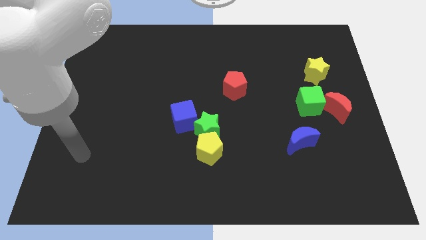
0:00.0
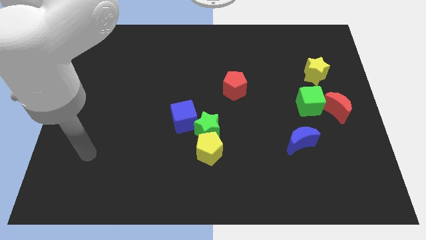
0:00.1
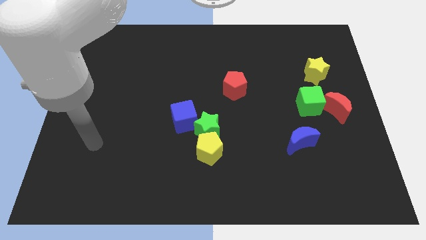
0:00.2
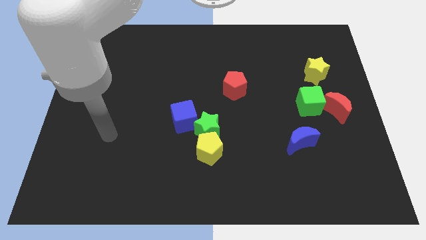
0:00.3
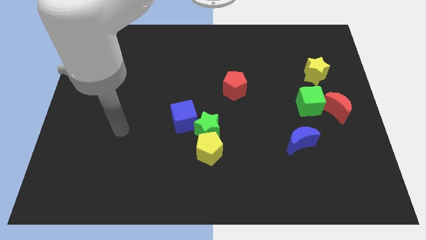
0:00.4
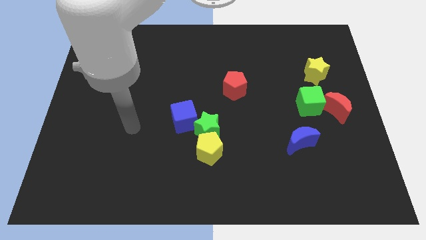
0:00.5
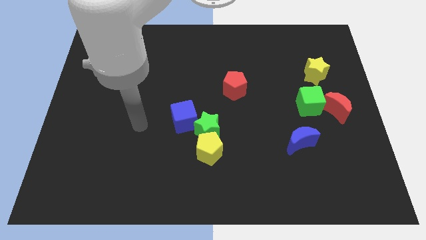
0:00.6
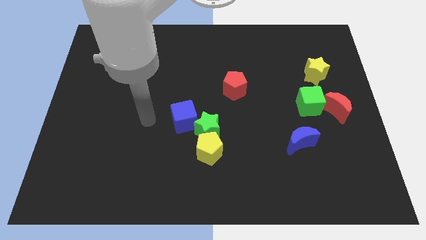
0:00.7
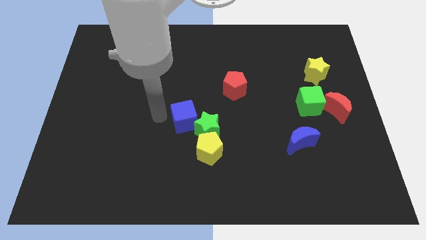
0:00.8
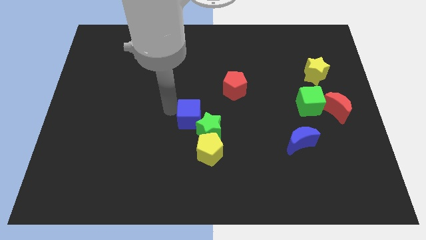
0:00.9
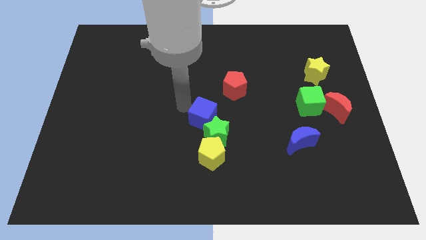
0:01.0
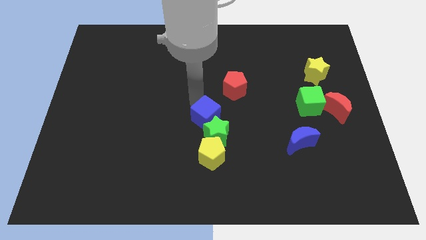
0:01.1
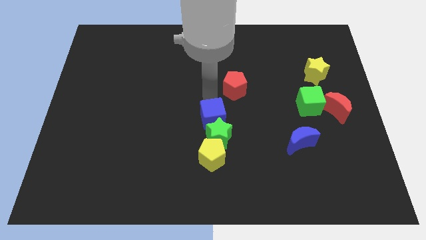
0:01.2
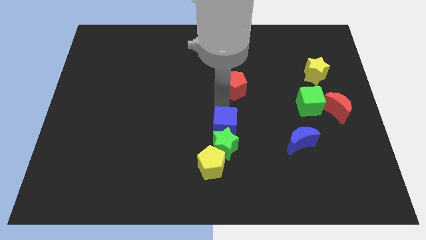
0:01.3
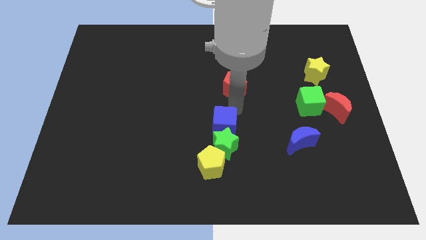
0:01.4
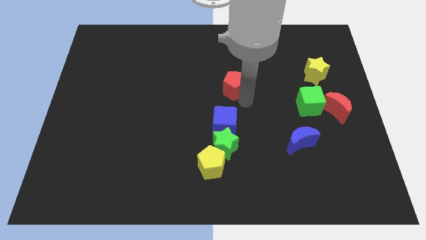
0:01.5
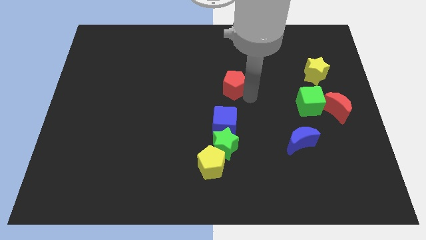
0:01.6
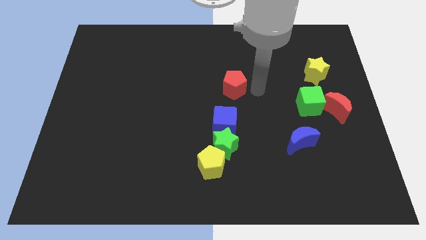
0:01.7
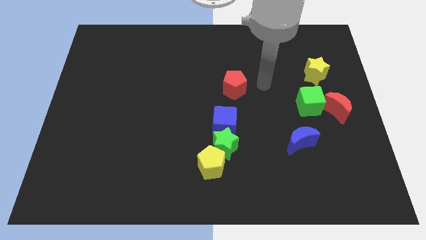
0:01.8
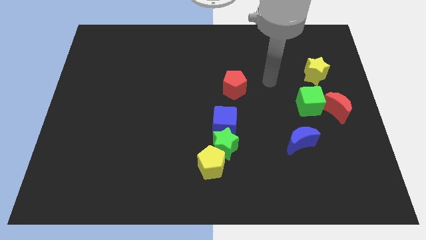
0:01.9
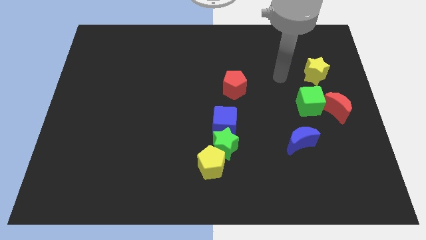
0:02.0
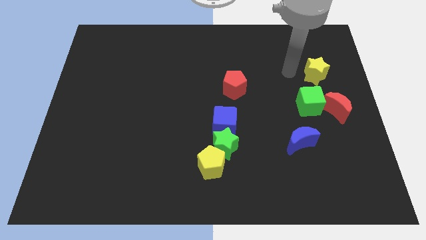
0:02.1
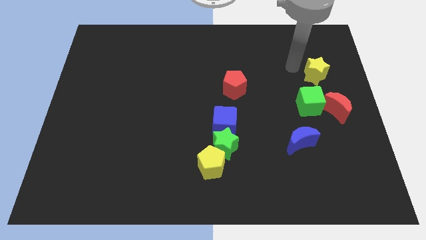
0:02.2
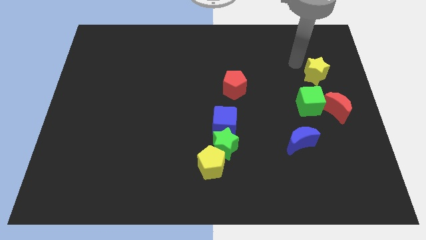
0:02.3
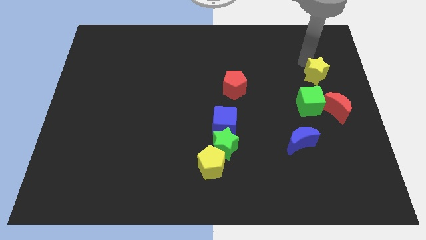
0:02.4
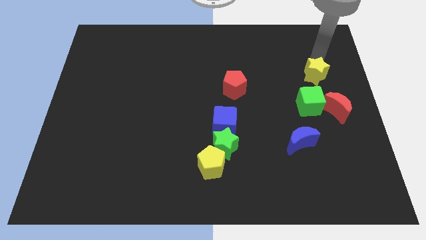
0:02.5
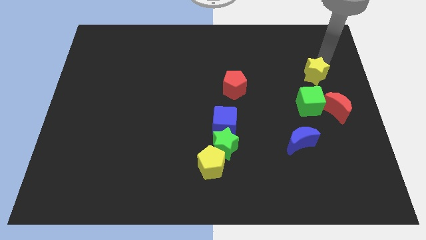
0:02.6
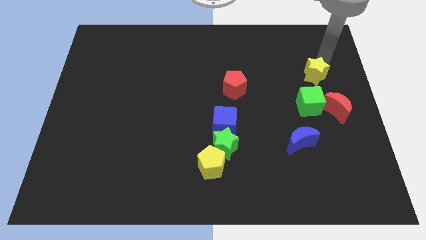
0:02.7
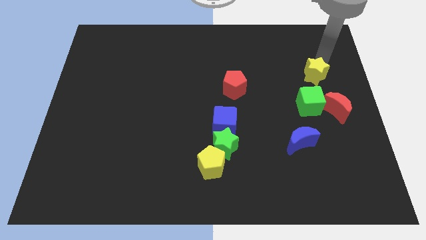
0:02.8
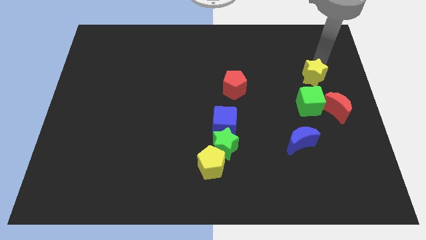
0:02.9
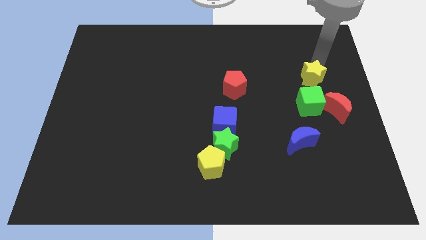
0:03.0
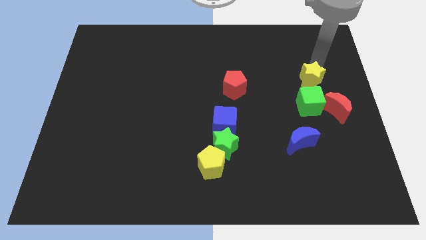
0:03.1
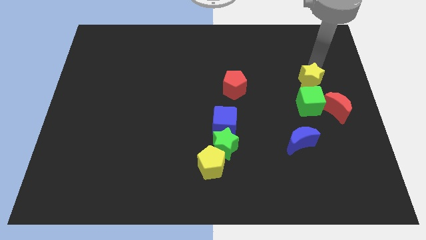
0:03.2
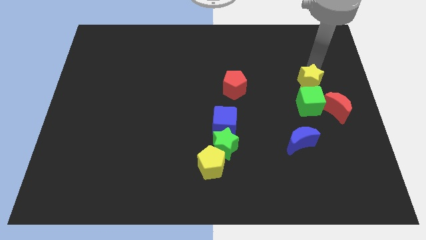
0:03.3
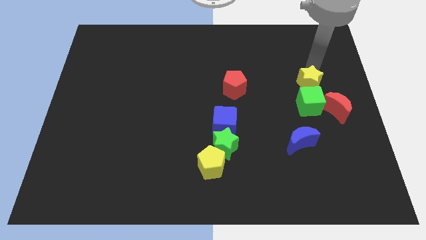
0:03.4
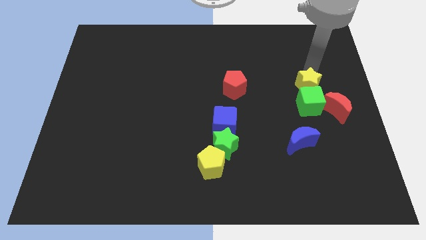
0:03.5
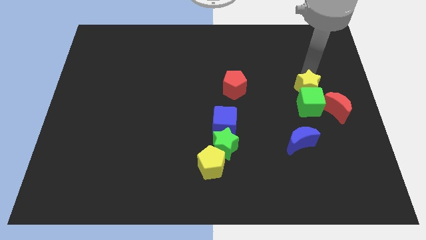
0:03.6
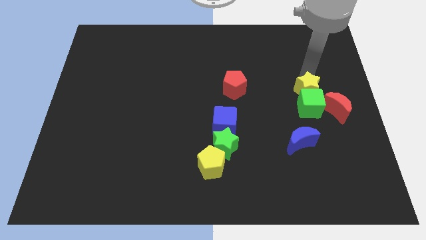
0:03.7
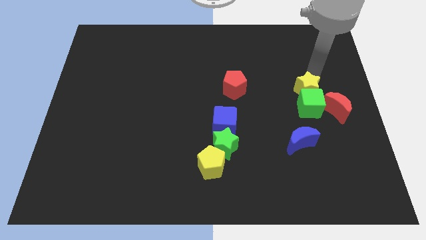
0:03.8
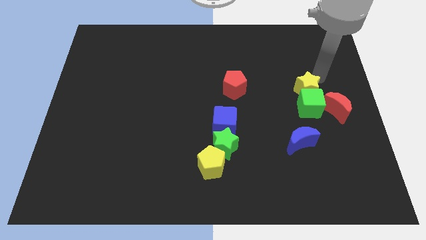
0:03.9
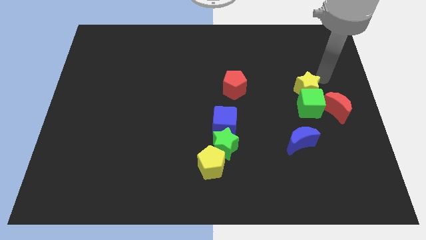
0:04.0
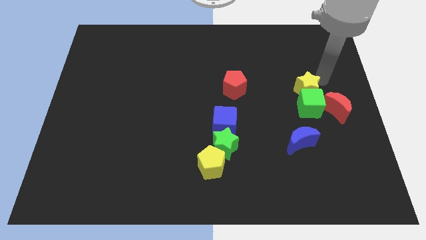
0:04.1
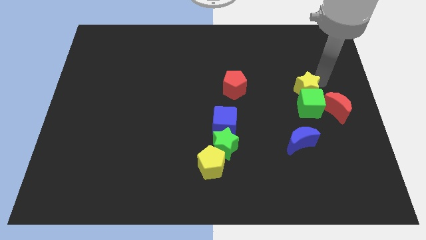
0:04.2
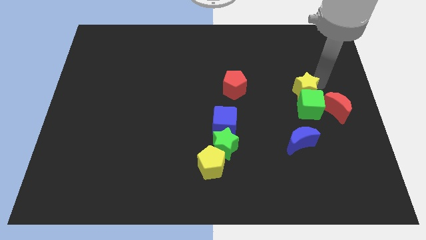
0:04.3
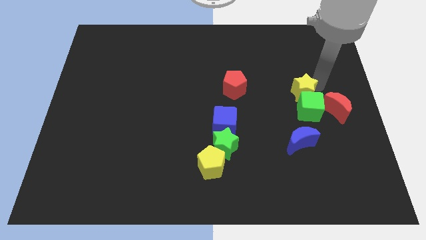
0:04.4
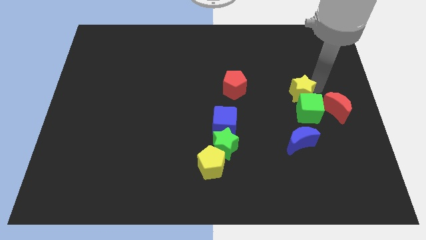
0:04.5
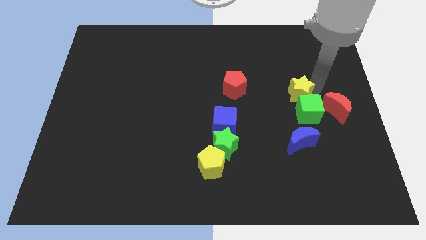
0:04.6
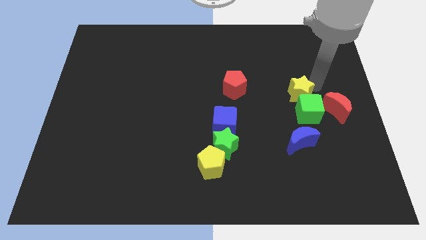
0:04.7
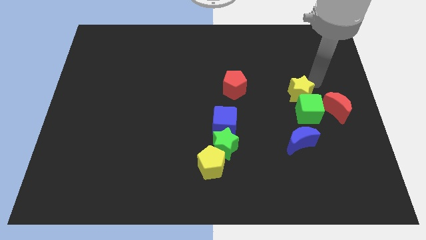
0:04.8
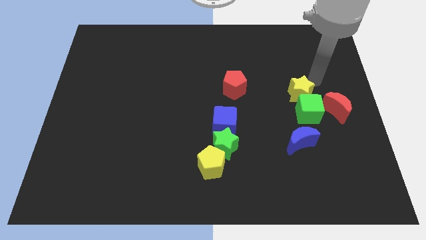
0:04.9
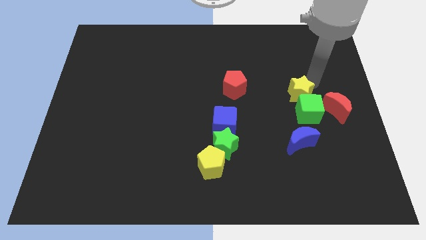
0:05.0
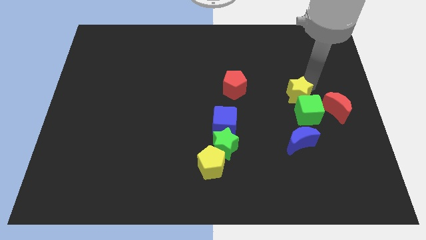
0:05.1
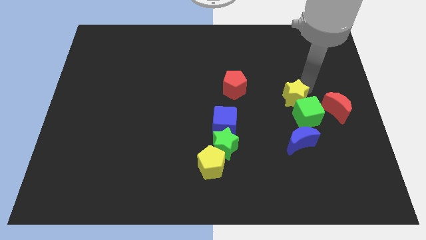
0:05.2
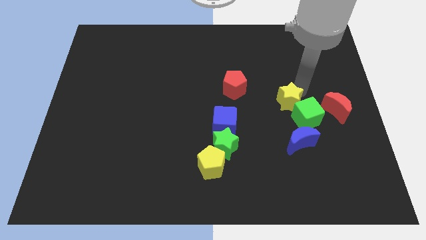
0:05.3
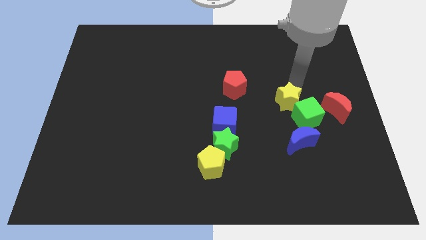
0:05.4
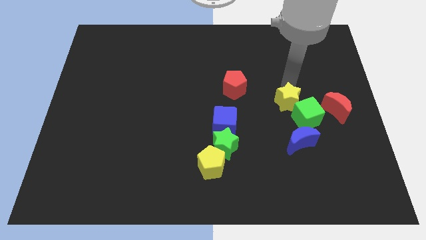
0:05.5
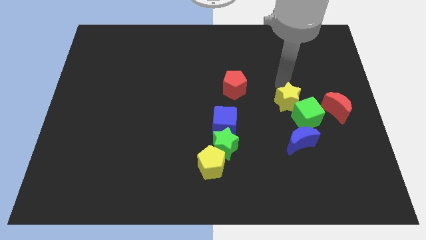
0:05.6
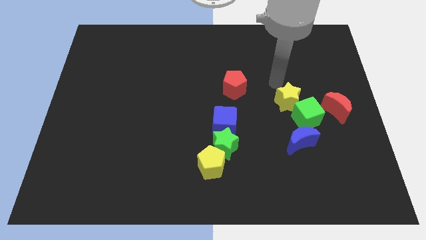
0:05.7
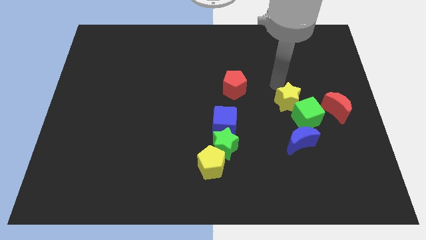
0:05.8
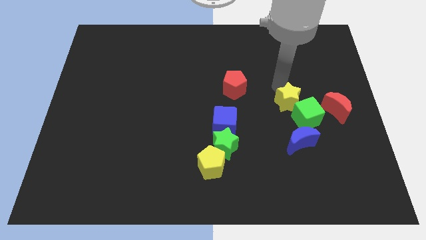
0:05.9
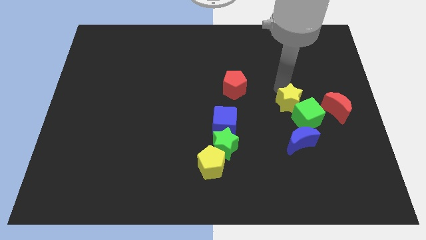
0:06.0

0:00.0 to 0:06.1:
push the yellow star downwards a little

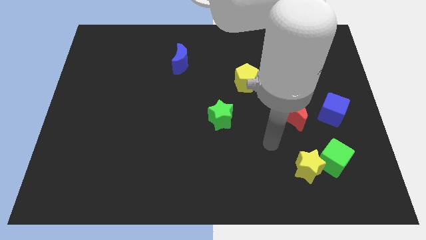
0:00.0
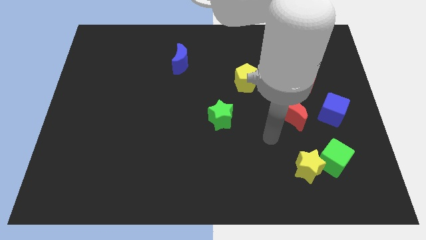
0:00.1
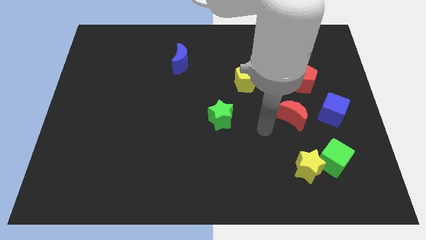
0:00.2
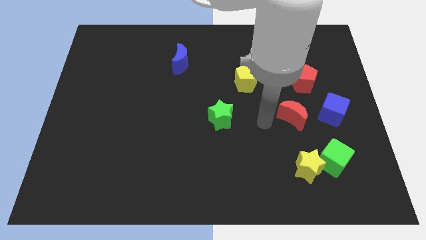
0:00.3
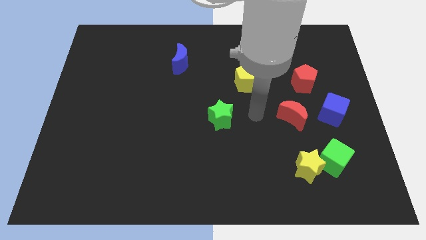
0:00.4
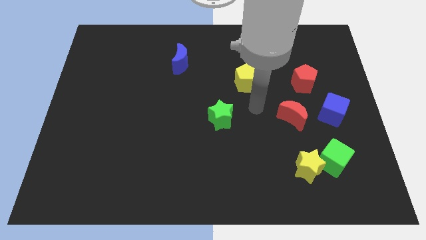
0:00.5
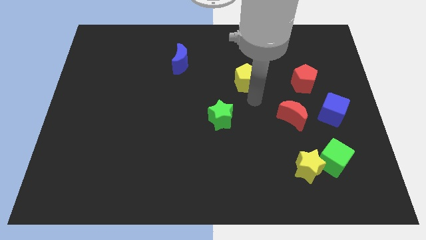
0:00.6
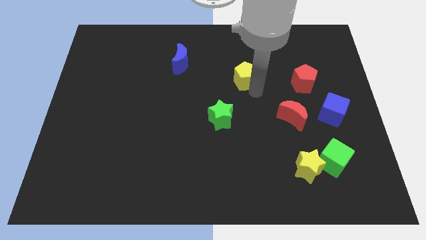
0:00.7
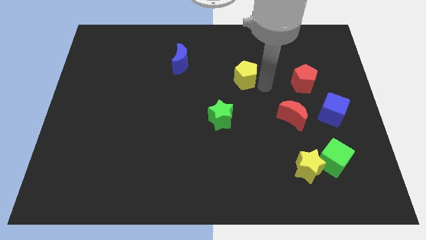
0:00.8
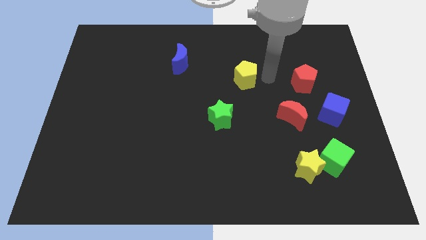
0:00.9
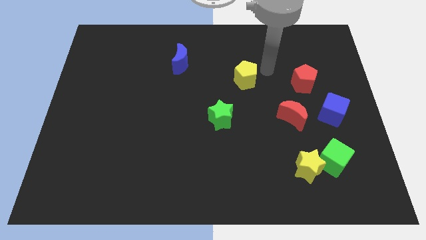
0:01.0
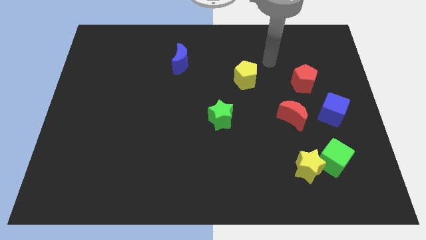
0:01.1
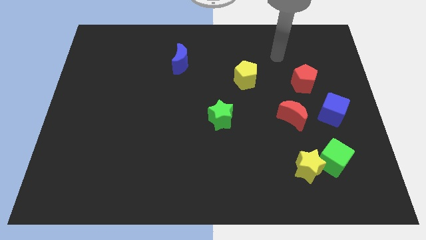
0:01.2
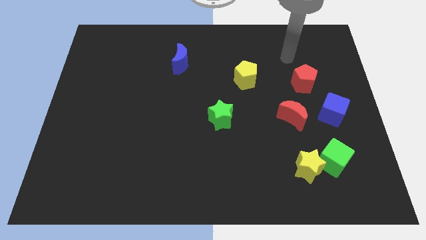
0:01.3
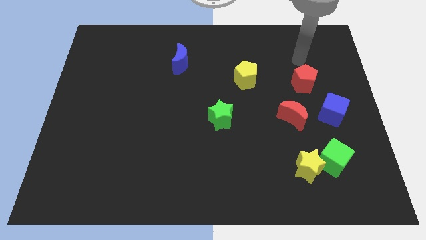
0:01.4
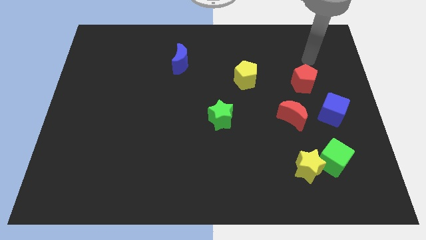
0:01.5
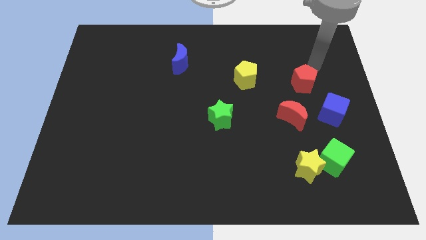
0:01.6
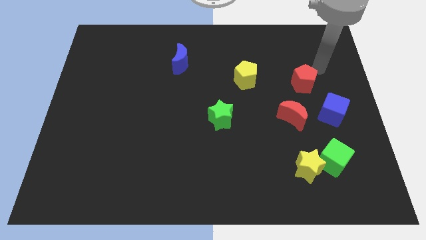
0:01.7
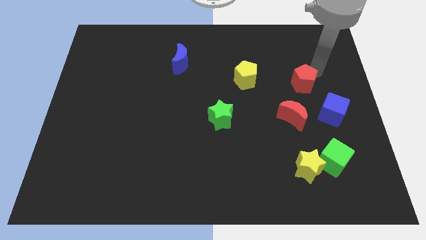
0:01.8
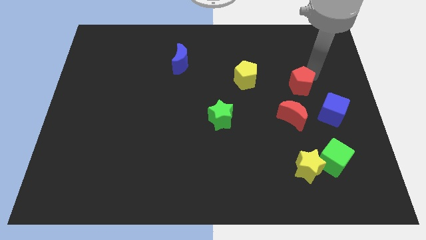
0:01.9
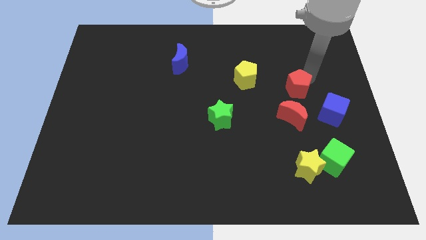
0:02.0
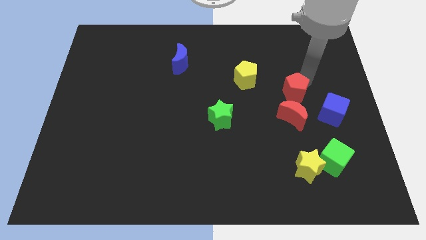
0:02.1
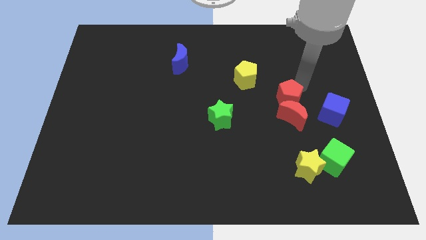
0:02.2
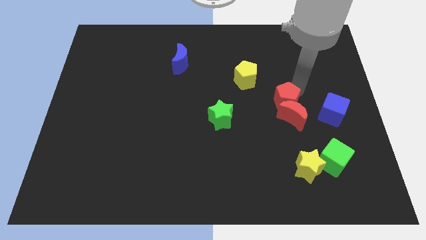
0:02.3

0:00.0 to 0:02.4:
move the red pentagon downwards and to the left diagonally a bit
